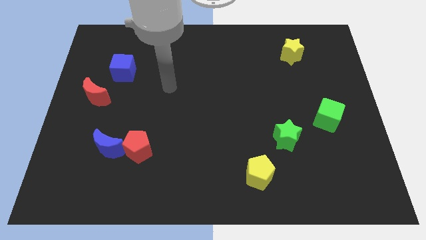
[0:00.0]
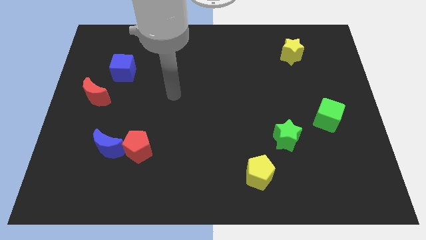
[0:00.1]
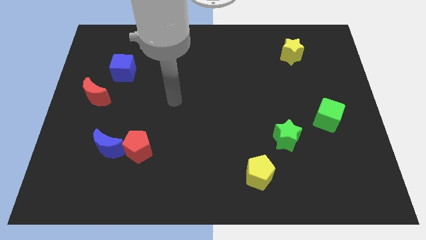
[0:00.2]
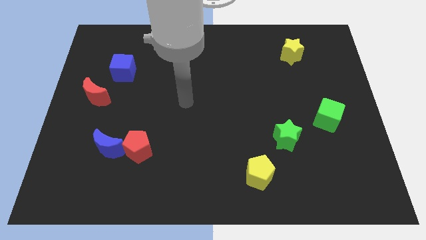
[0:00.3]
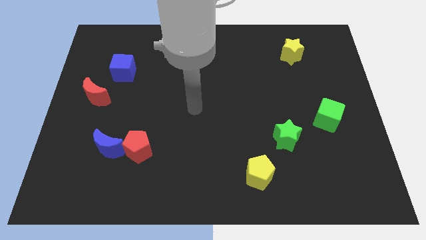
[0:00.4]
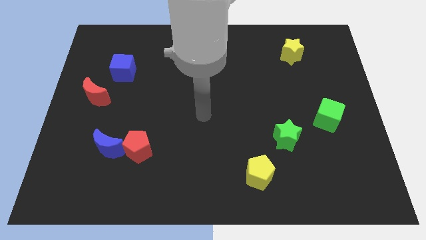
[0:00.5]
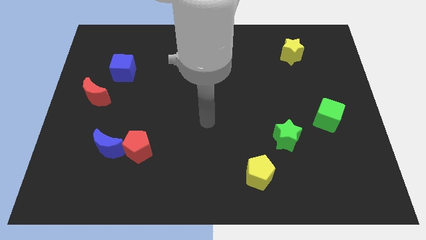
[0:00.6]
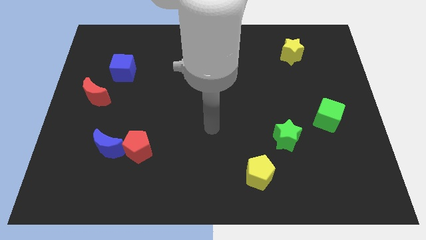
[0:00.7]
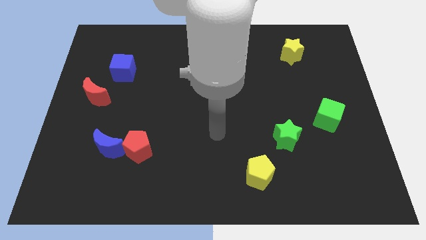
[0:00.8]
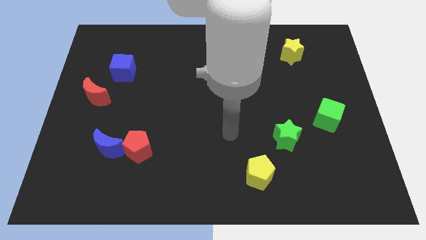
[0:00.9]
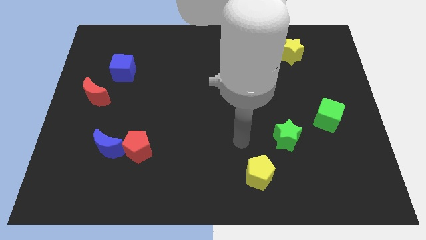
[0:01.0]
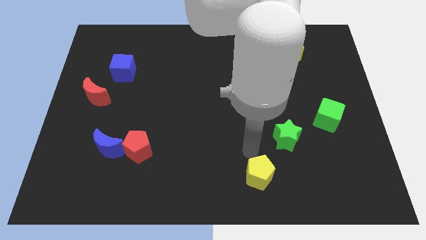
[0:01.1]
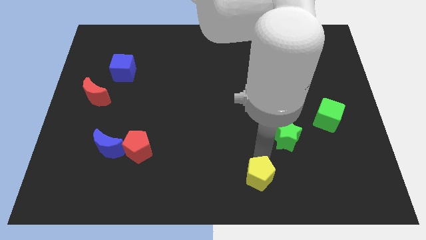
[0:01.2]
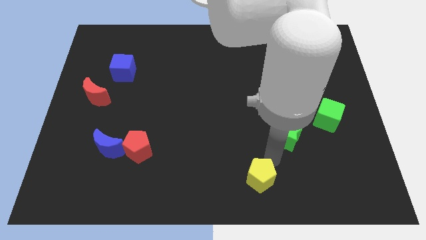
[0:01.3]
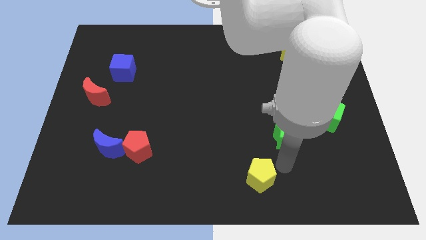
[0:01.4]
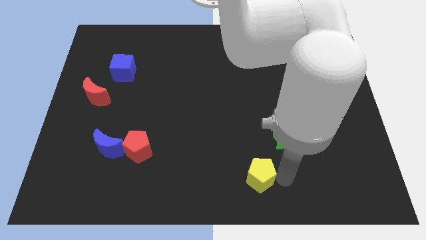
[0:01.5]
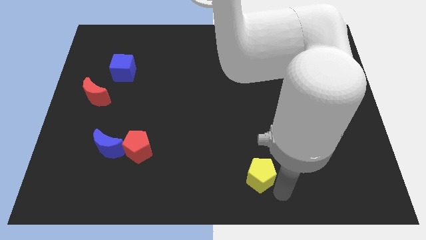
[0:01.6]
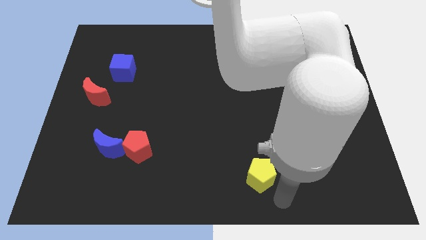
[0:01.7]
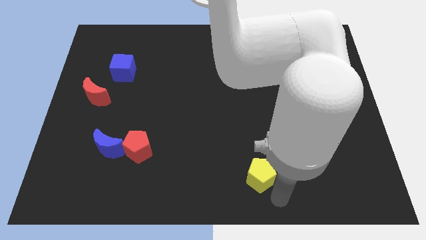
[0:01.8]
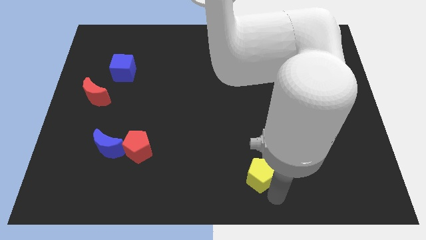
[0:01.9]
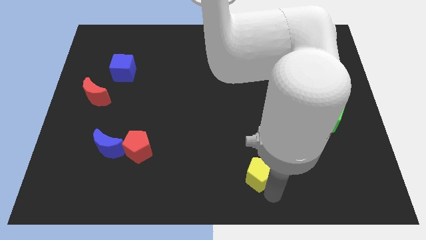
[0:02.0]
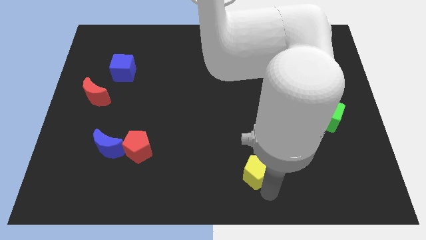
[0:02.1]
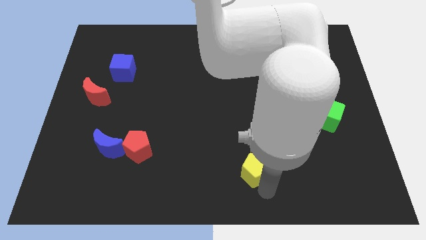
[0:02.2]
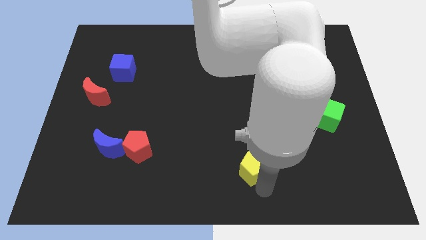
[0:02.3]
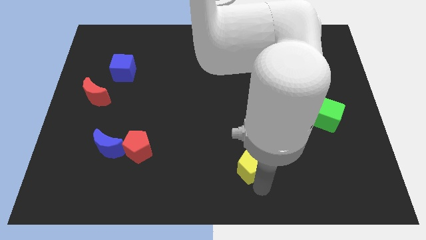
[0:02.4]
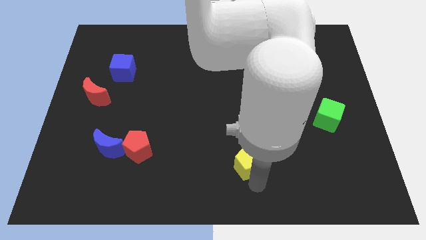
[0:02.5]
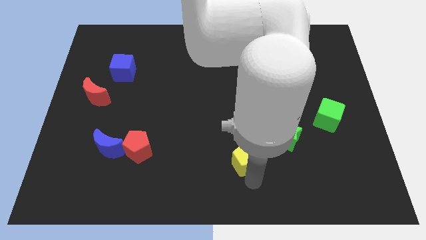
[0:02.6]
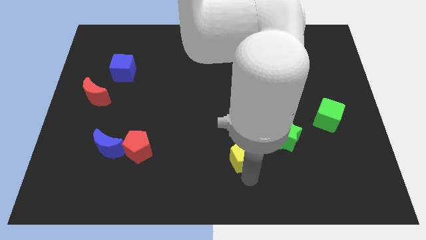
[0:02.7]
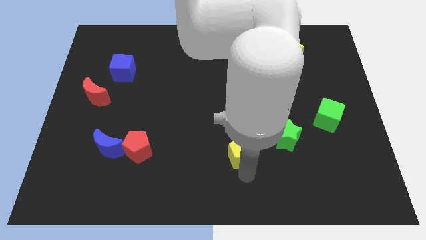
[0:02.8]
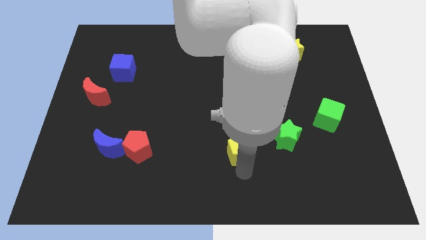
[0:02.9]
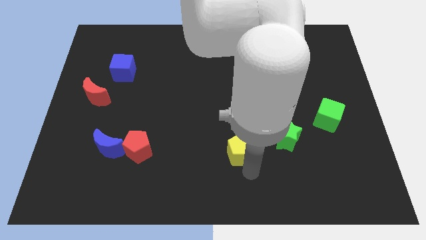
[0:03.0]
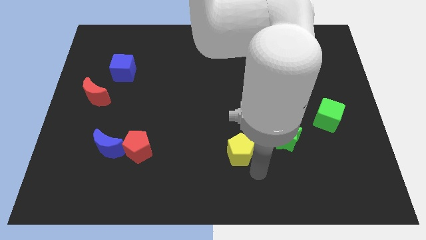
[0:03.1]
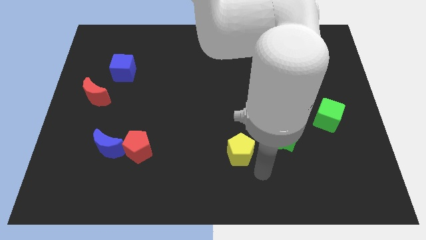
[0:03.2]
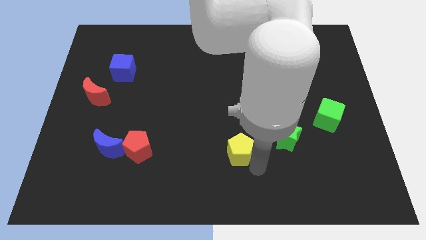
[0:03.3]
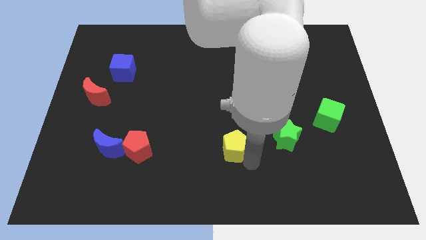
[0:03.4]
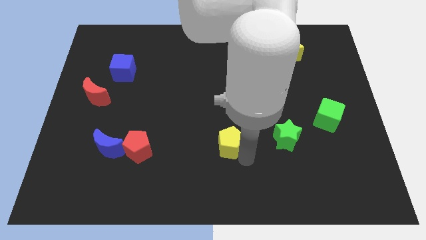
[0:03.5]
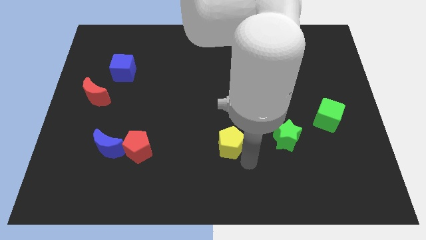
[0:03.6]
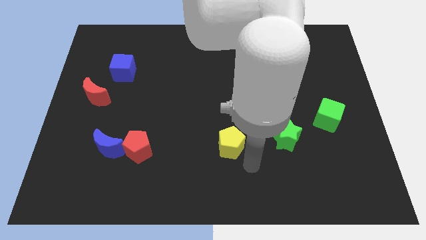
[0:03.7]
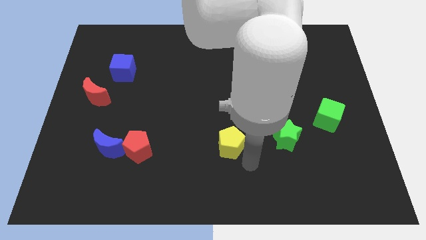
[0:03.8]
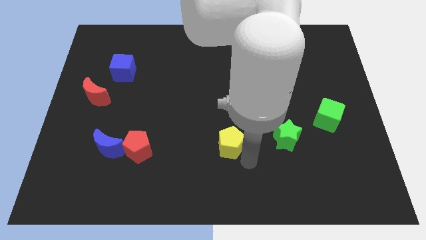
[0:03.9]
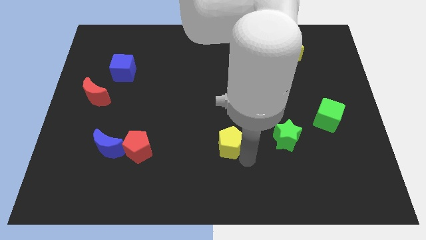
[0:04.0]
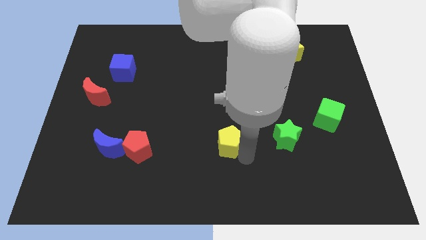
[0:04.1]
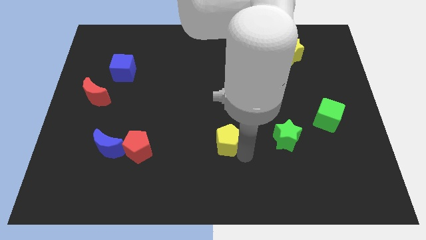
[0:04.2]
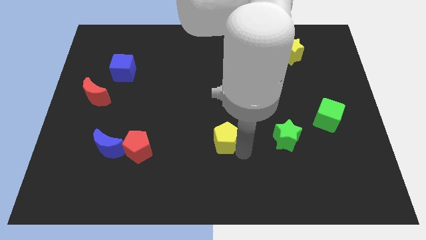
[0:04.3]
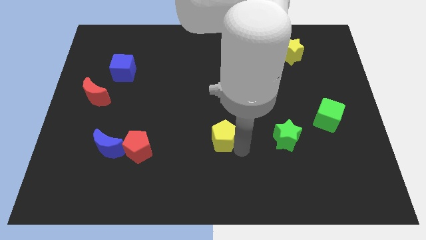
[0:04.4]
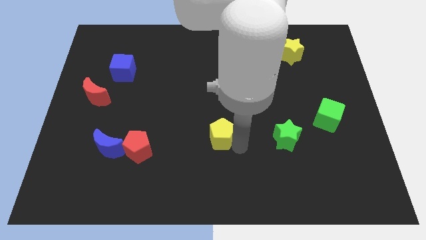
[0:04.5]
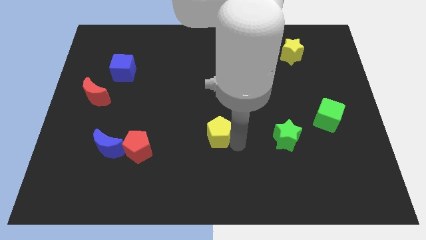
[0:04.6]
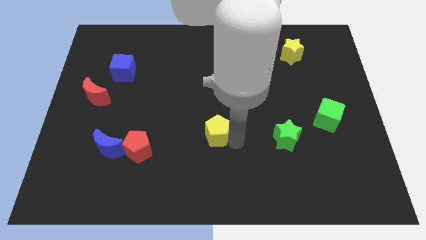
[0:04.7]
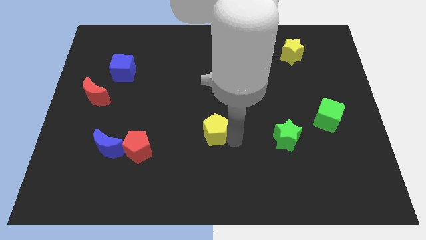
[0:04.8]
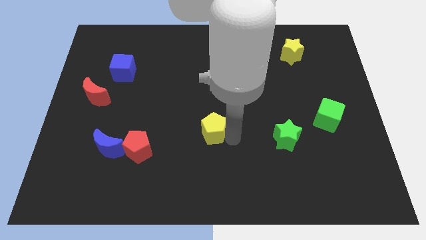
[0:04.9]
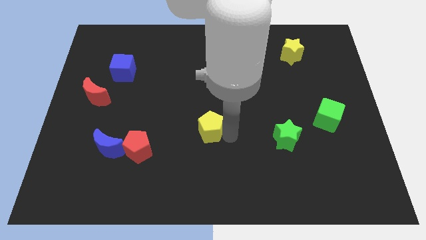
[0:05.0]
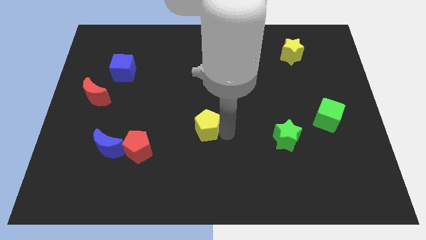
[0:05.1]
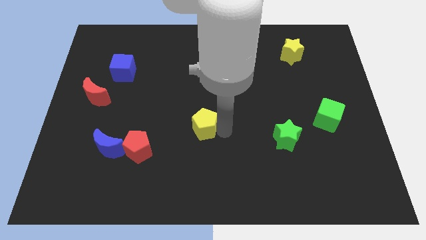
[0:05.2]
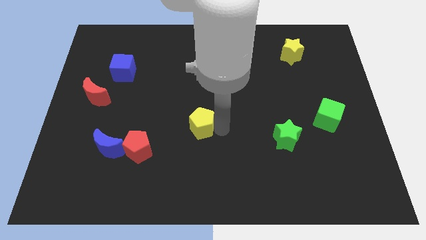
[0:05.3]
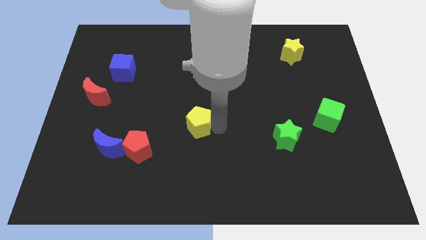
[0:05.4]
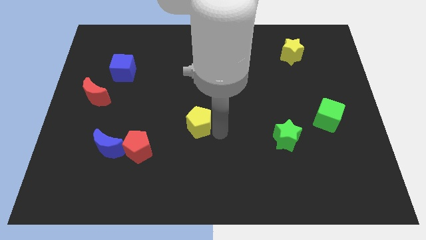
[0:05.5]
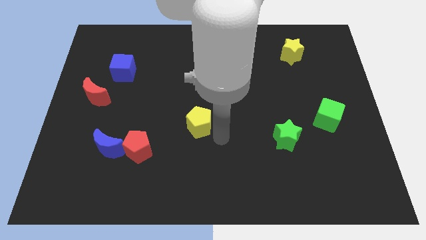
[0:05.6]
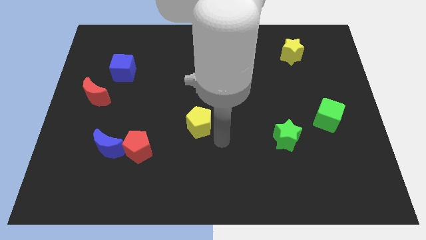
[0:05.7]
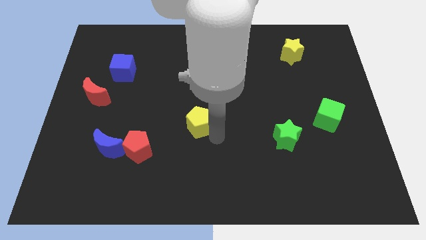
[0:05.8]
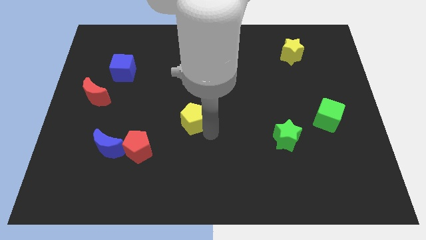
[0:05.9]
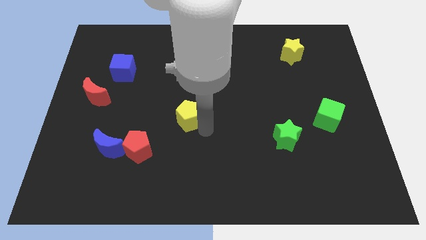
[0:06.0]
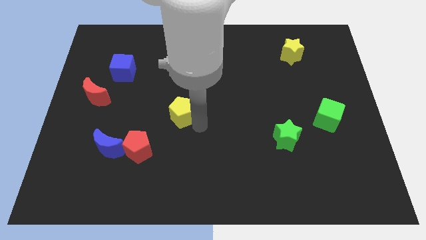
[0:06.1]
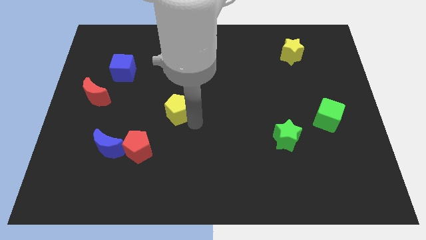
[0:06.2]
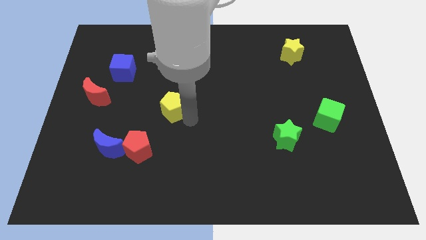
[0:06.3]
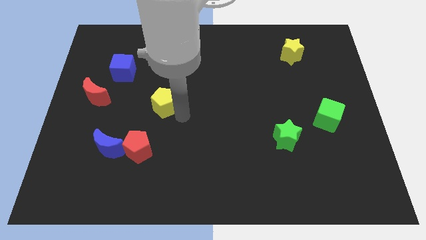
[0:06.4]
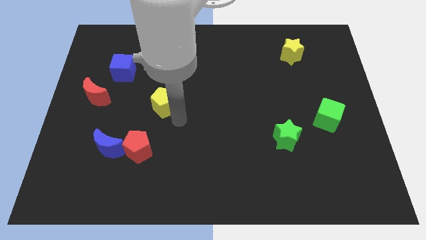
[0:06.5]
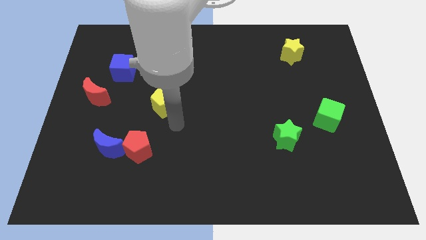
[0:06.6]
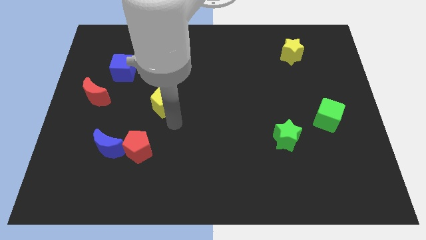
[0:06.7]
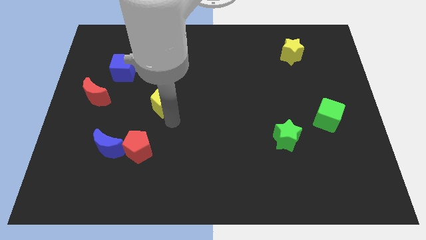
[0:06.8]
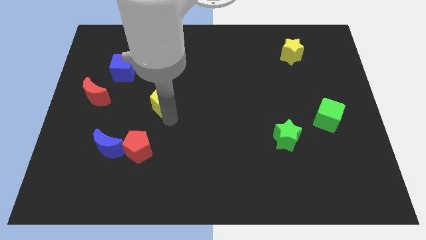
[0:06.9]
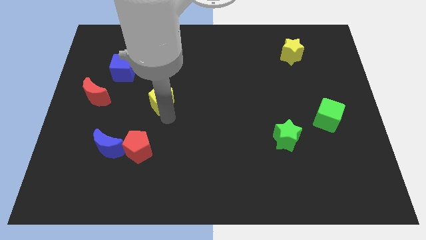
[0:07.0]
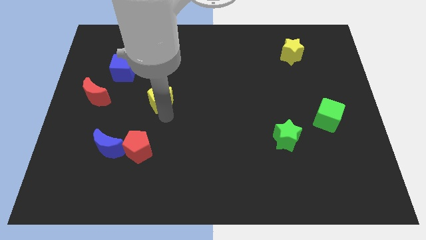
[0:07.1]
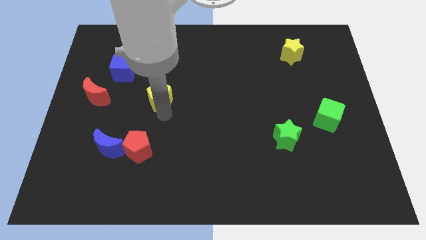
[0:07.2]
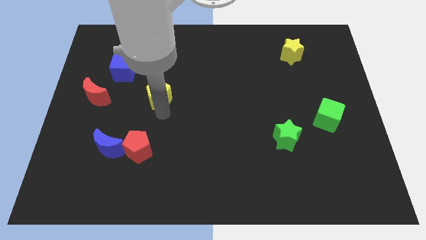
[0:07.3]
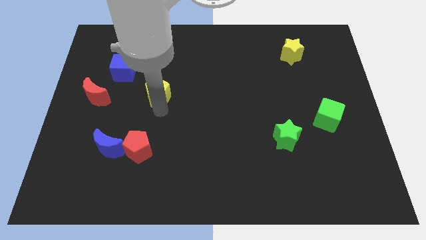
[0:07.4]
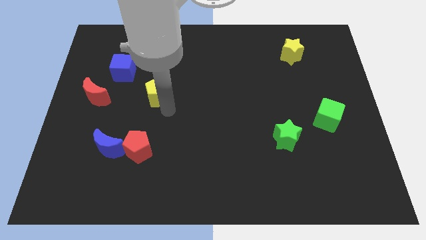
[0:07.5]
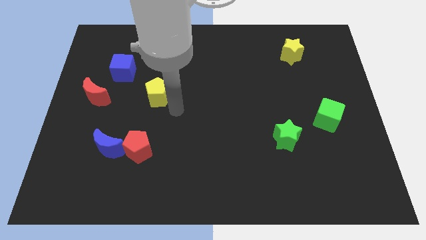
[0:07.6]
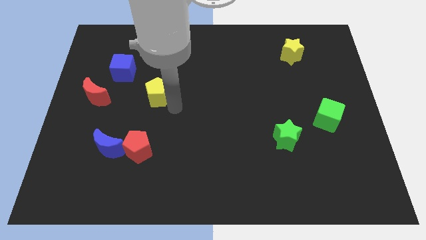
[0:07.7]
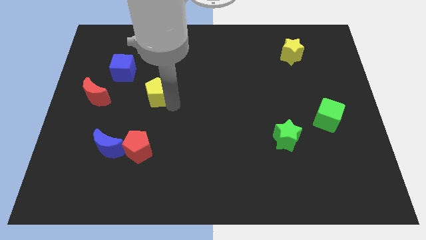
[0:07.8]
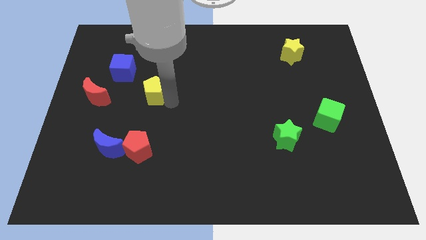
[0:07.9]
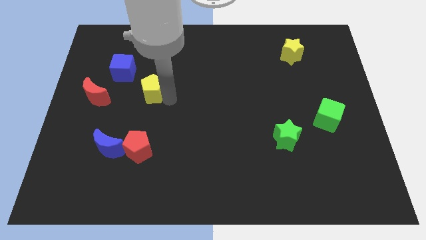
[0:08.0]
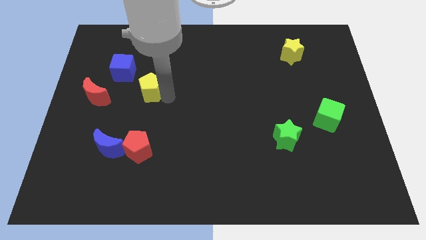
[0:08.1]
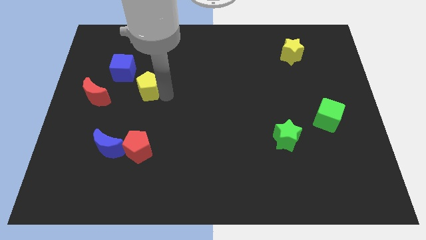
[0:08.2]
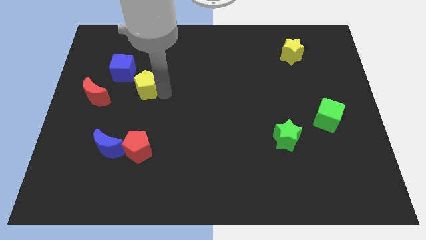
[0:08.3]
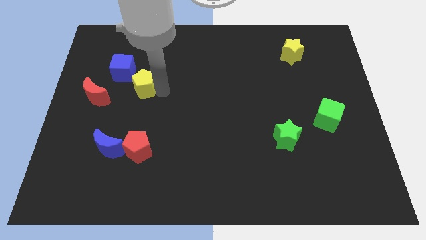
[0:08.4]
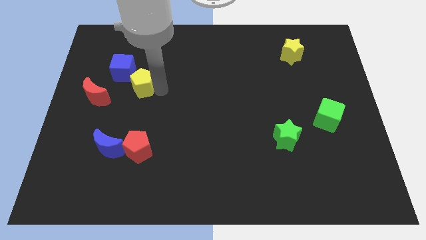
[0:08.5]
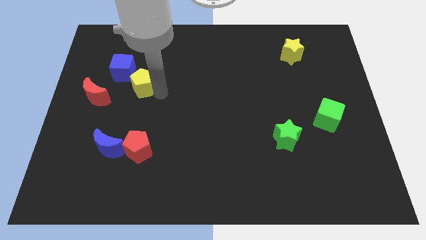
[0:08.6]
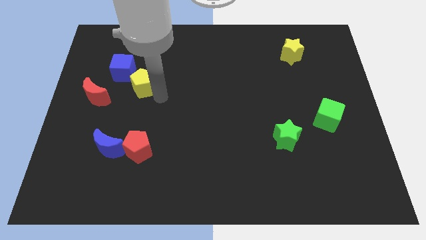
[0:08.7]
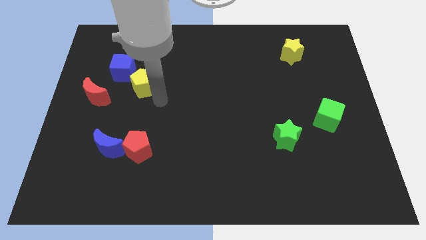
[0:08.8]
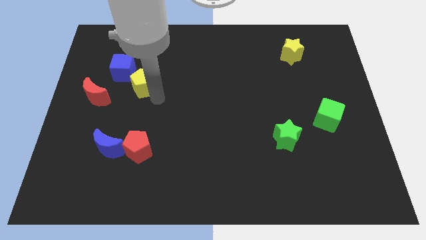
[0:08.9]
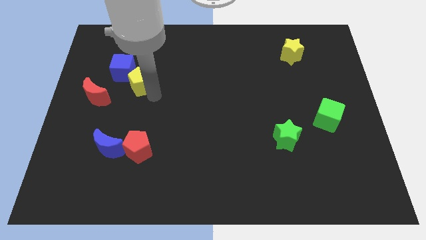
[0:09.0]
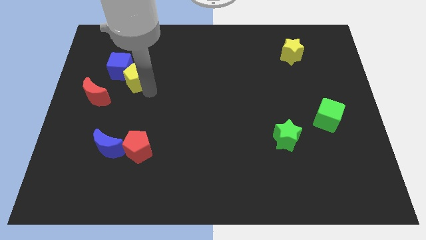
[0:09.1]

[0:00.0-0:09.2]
move the yellow pentagon towards the blue cube
